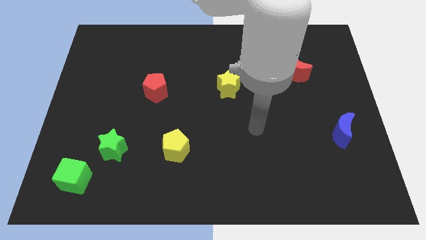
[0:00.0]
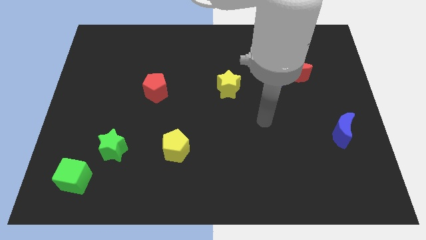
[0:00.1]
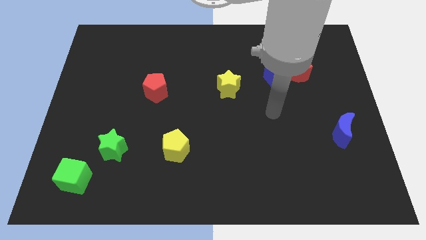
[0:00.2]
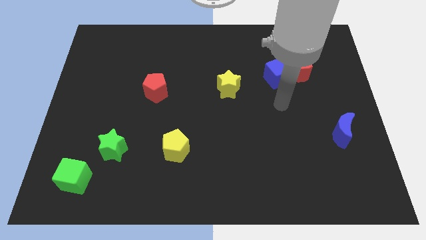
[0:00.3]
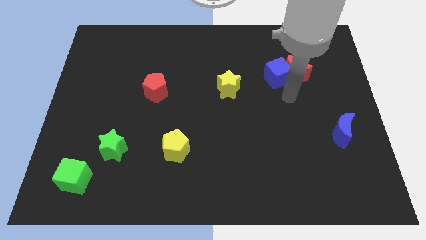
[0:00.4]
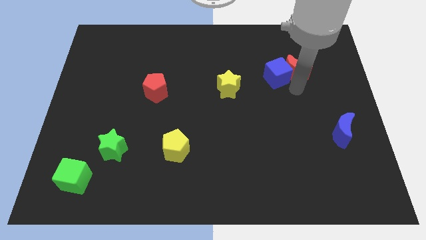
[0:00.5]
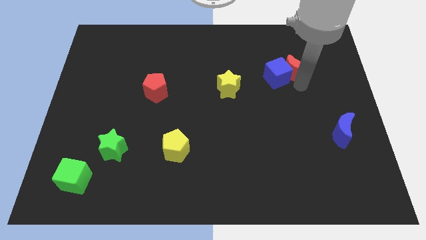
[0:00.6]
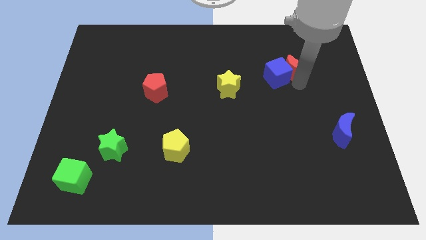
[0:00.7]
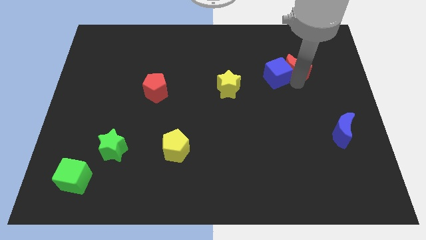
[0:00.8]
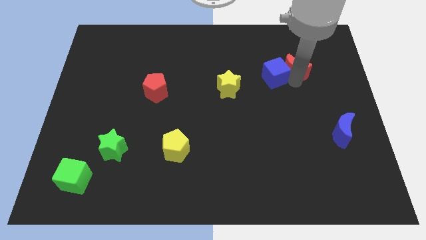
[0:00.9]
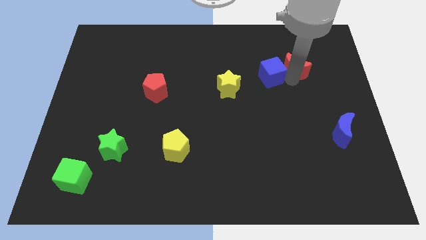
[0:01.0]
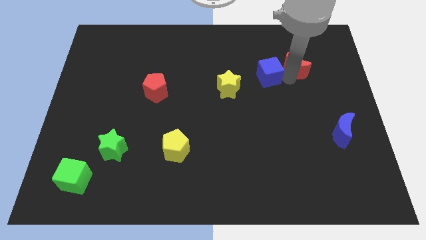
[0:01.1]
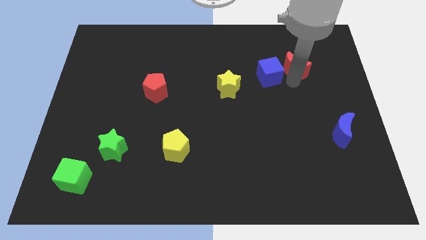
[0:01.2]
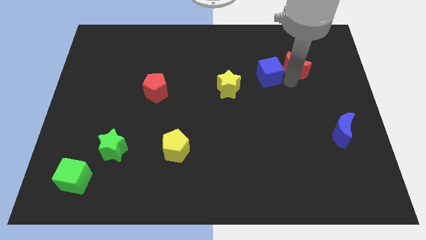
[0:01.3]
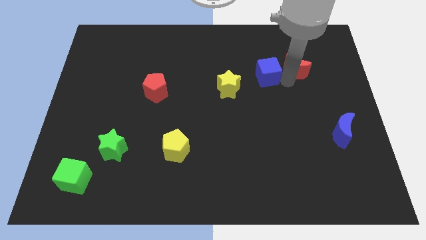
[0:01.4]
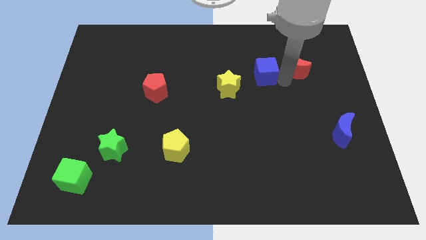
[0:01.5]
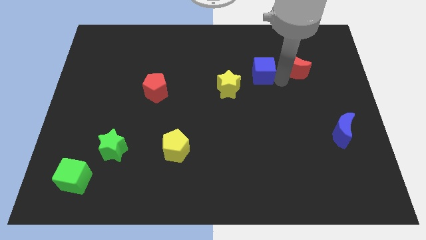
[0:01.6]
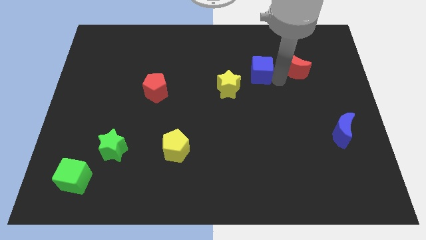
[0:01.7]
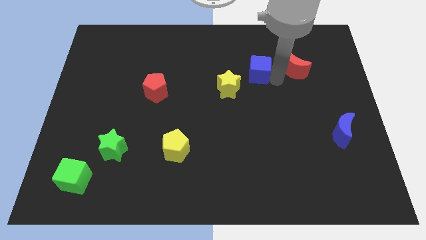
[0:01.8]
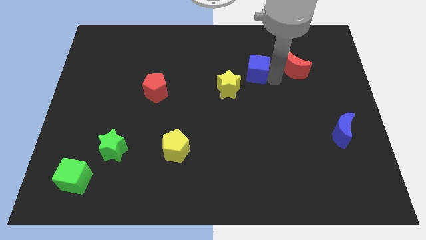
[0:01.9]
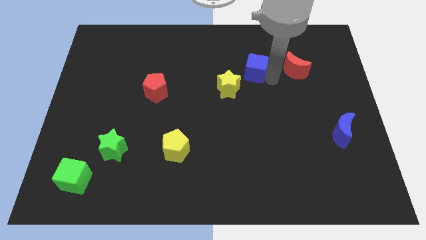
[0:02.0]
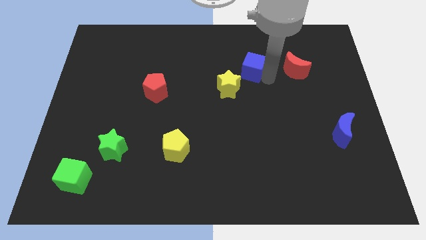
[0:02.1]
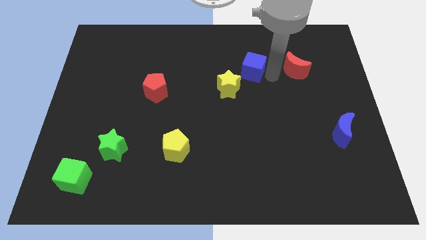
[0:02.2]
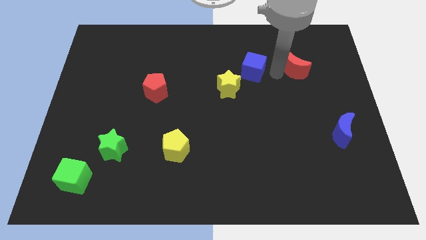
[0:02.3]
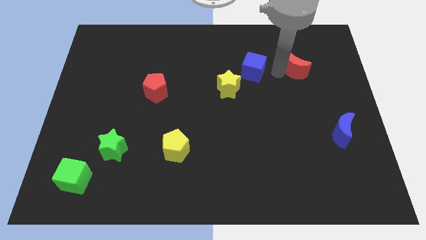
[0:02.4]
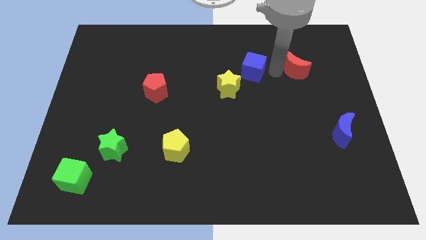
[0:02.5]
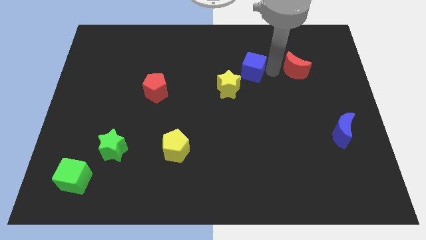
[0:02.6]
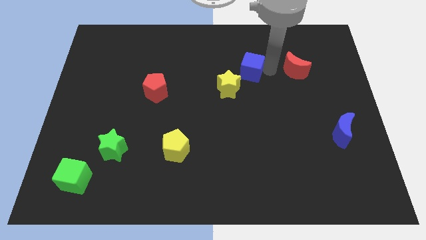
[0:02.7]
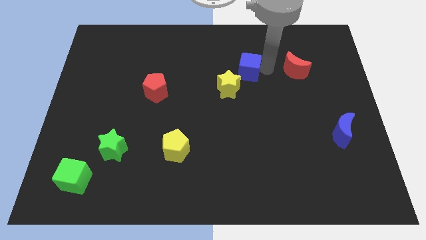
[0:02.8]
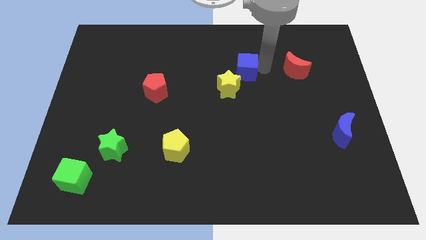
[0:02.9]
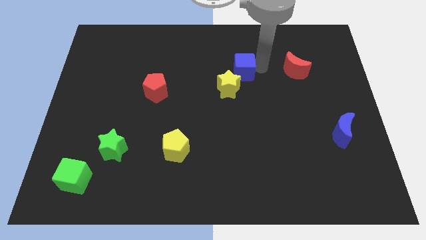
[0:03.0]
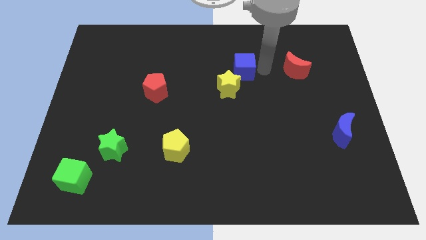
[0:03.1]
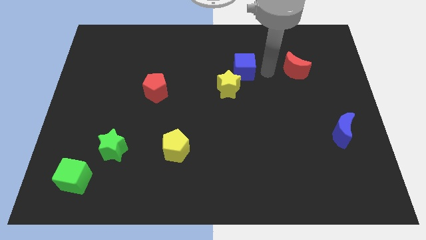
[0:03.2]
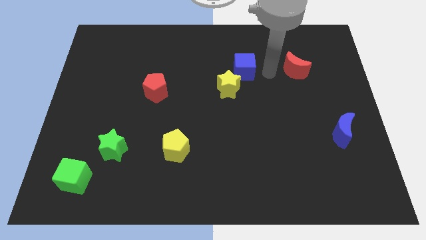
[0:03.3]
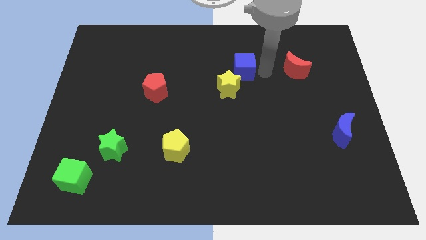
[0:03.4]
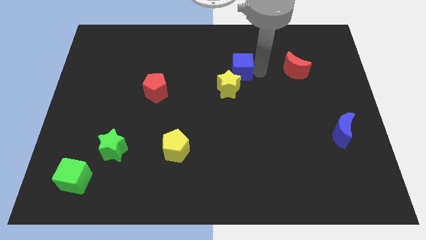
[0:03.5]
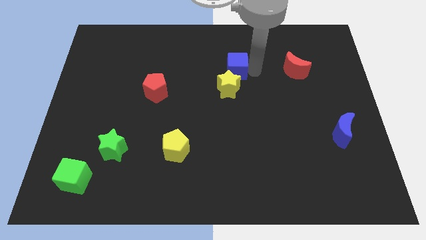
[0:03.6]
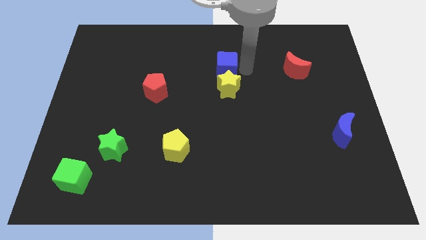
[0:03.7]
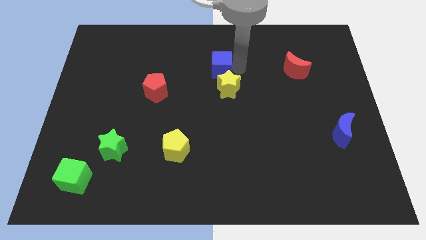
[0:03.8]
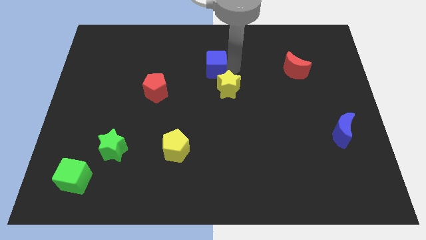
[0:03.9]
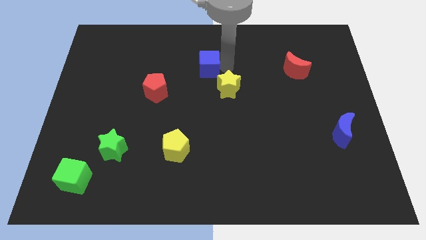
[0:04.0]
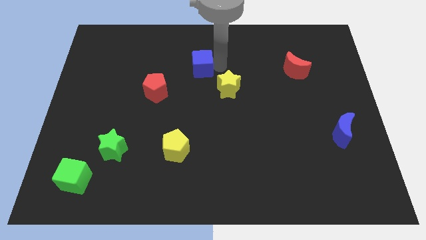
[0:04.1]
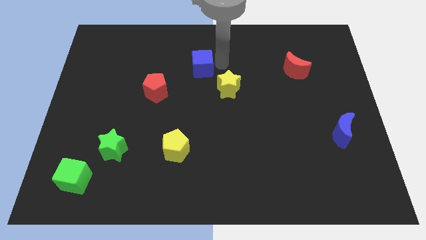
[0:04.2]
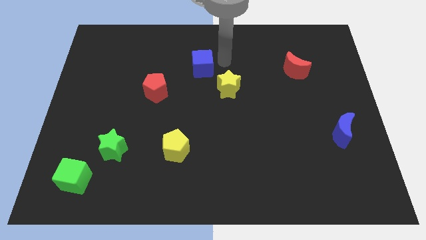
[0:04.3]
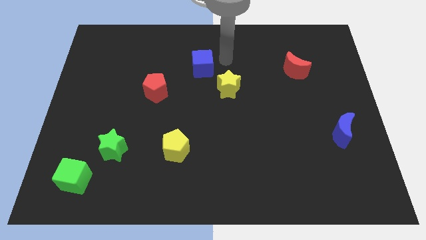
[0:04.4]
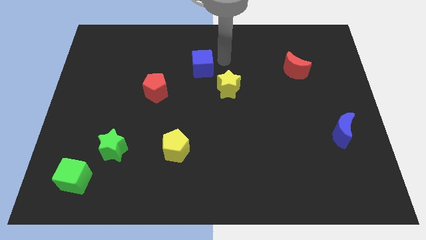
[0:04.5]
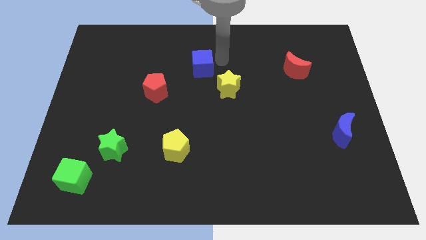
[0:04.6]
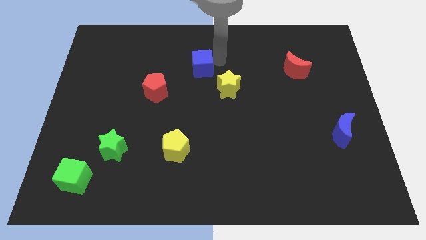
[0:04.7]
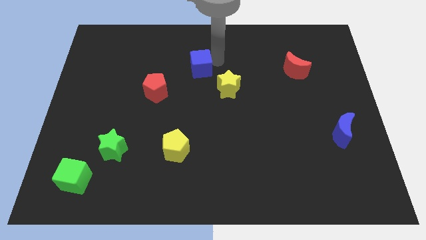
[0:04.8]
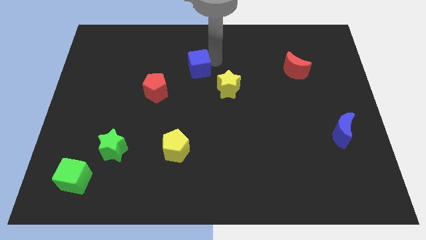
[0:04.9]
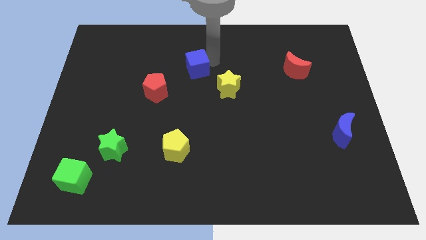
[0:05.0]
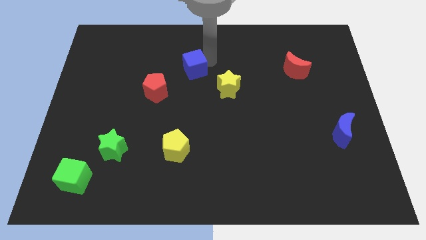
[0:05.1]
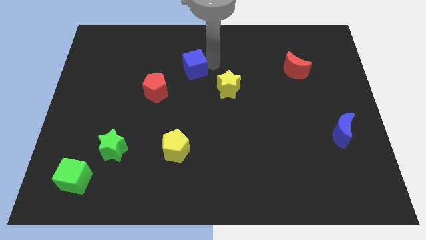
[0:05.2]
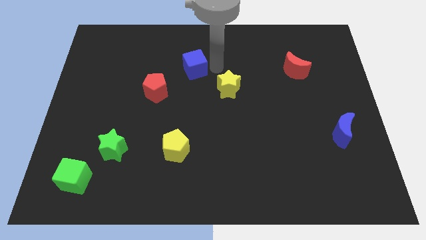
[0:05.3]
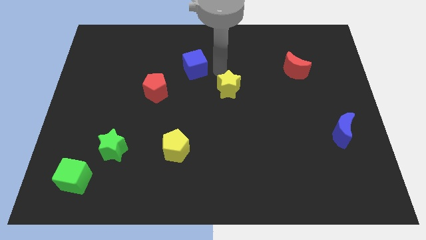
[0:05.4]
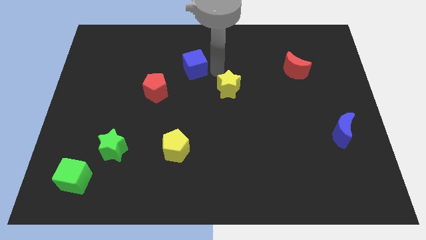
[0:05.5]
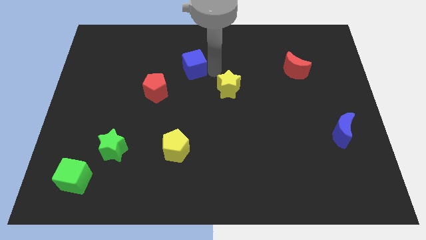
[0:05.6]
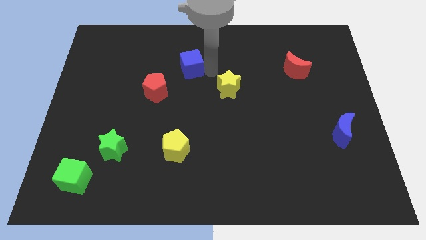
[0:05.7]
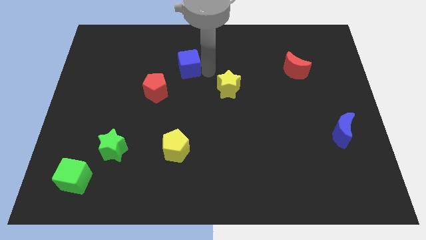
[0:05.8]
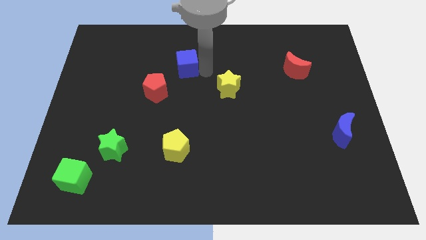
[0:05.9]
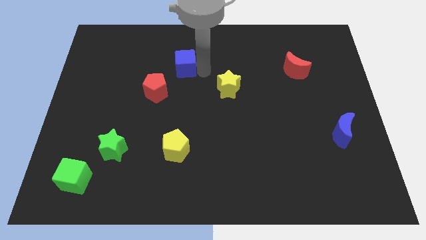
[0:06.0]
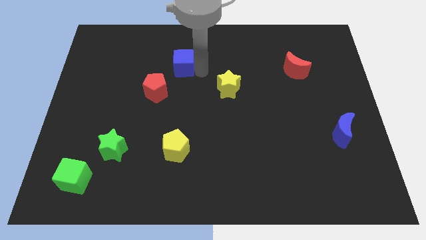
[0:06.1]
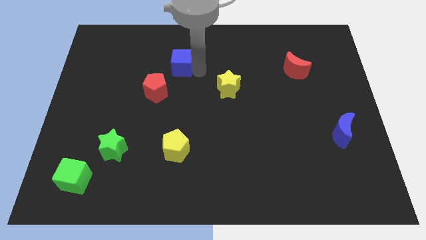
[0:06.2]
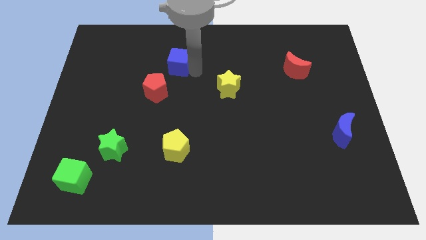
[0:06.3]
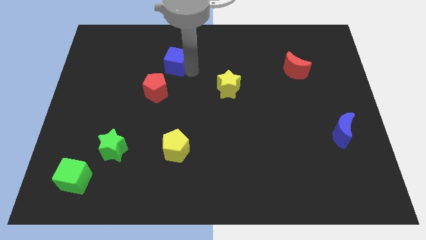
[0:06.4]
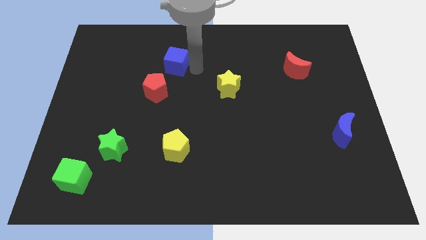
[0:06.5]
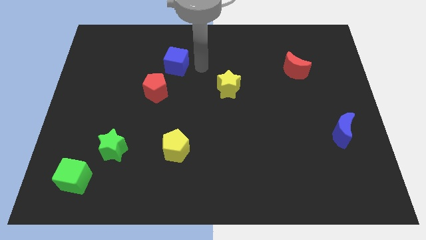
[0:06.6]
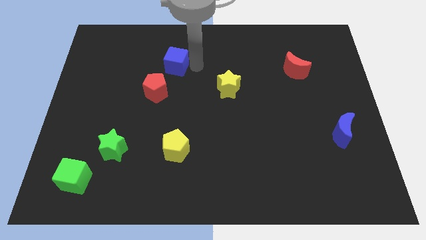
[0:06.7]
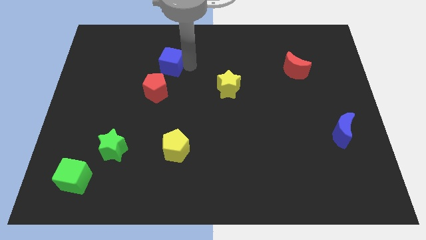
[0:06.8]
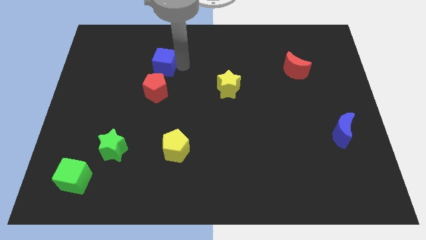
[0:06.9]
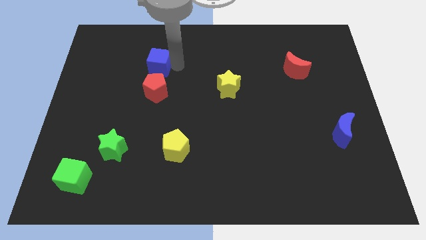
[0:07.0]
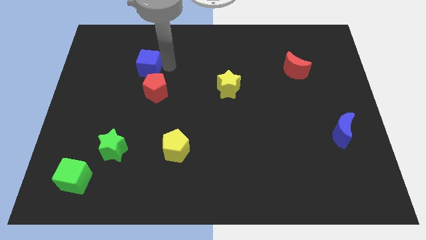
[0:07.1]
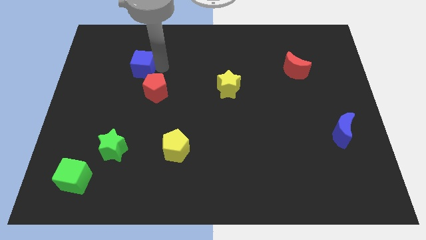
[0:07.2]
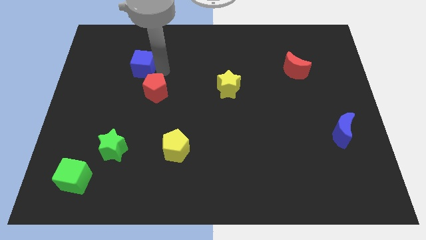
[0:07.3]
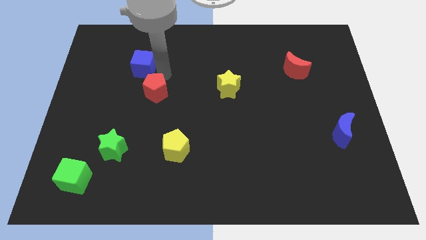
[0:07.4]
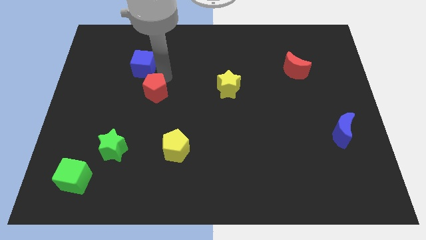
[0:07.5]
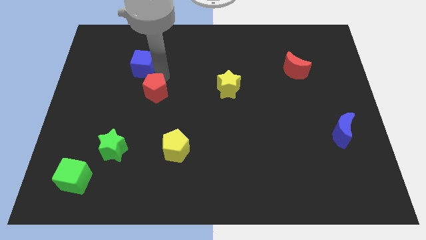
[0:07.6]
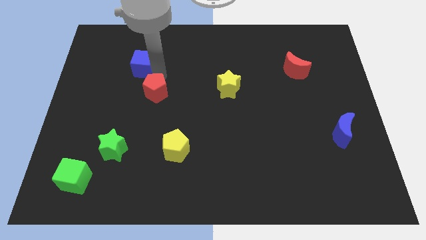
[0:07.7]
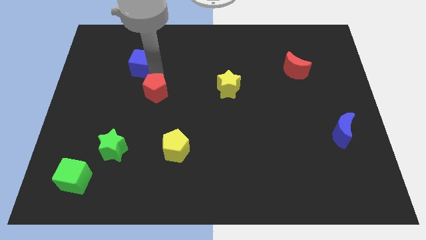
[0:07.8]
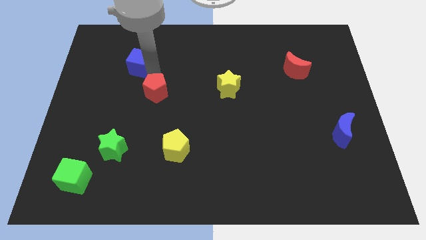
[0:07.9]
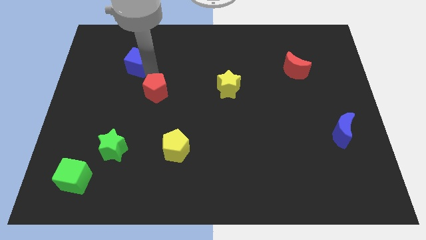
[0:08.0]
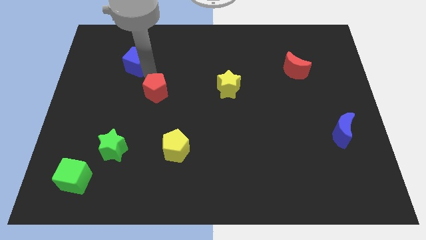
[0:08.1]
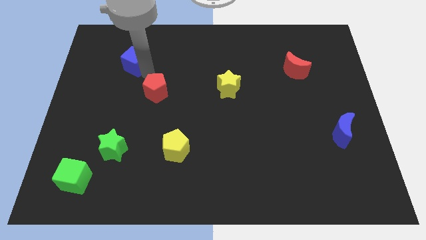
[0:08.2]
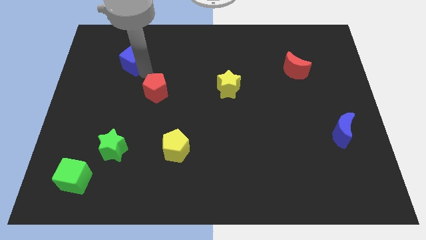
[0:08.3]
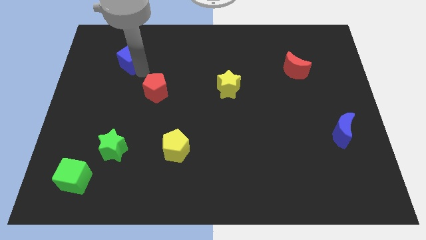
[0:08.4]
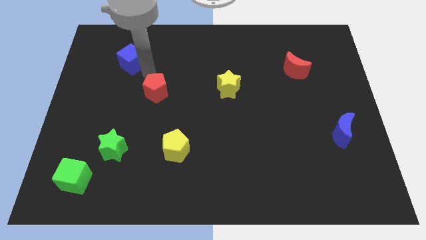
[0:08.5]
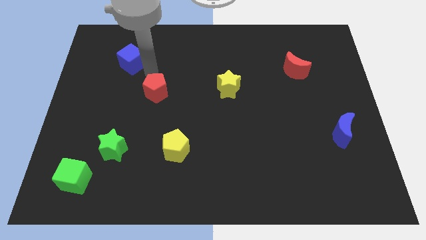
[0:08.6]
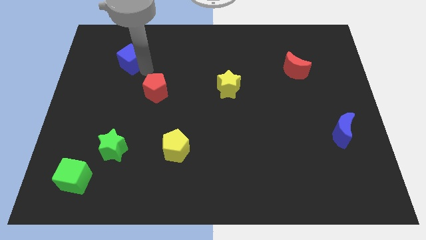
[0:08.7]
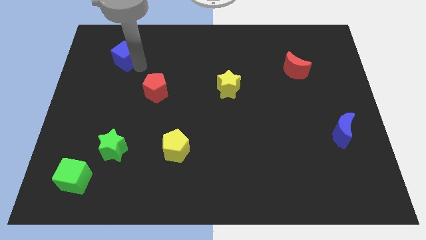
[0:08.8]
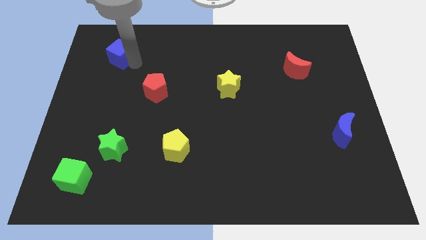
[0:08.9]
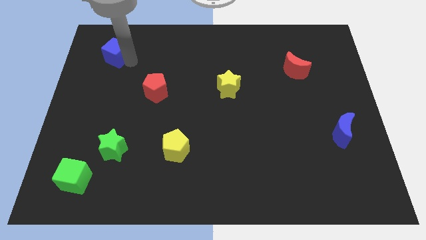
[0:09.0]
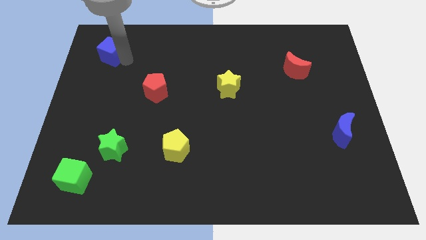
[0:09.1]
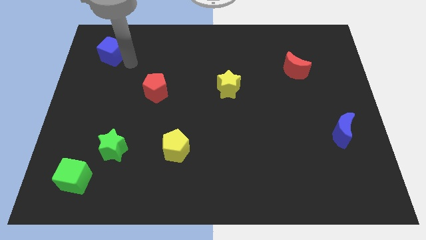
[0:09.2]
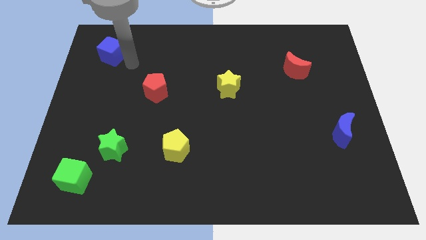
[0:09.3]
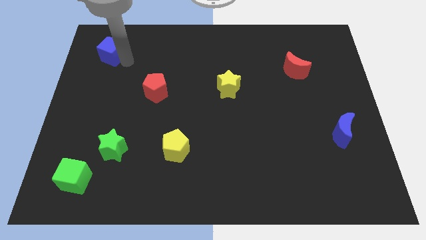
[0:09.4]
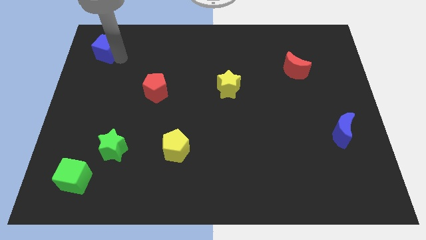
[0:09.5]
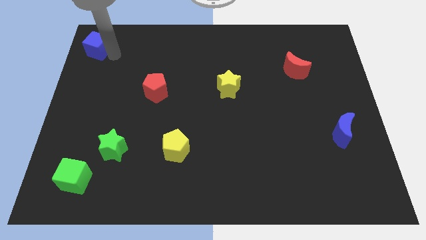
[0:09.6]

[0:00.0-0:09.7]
push the blue cube to the top left corner
